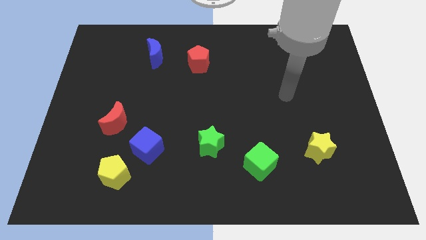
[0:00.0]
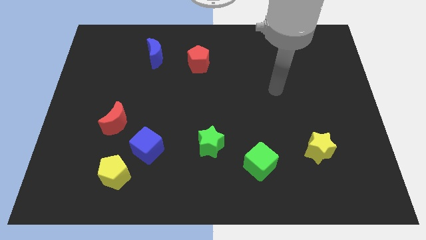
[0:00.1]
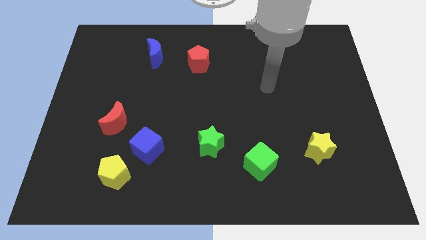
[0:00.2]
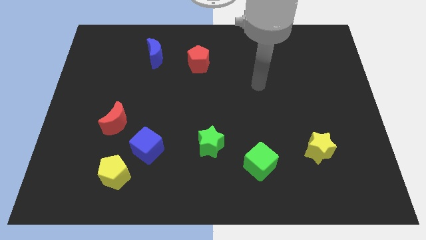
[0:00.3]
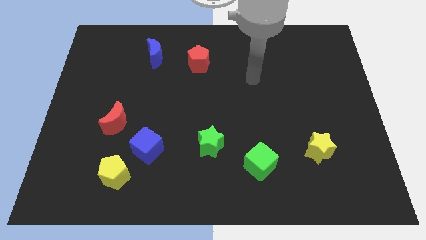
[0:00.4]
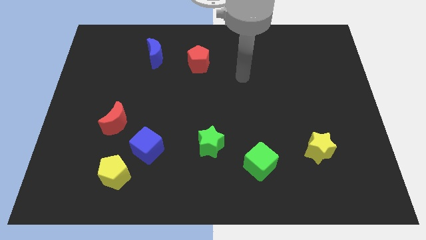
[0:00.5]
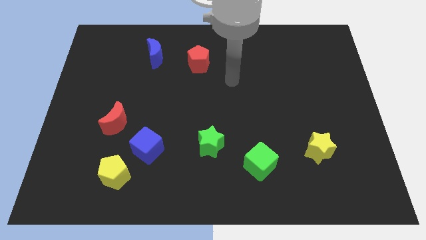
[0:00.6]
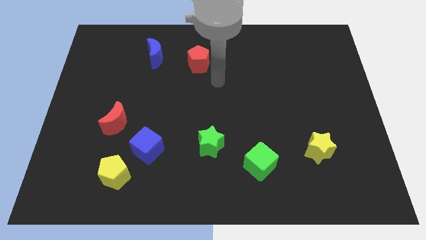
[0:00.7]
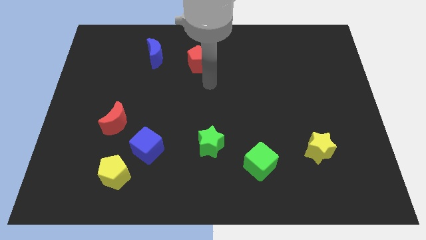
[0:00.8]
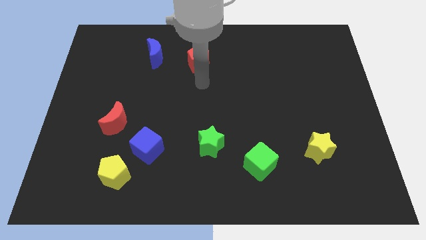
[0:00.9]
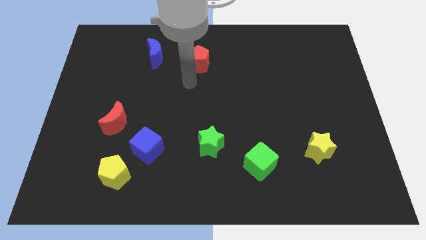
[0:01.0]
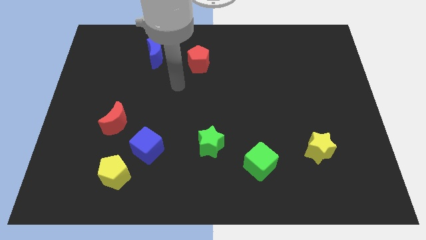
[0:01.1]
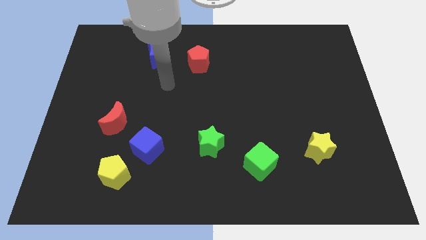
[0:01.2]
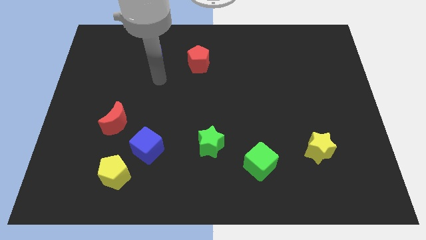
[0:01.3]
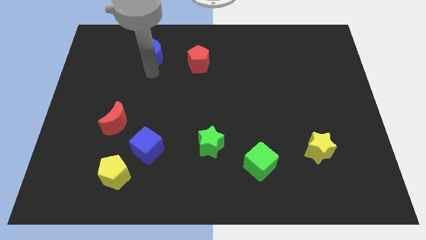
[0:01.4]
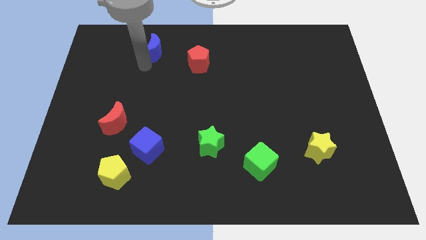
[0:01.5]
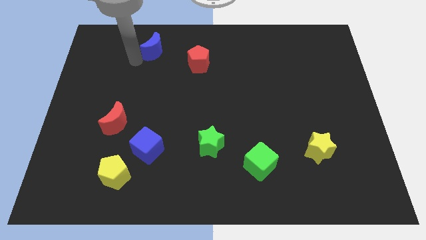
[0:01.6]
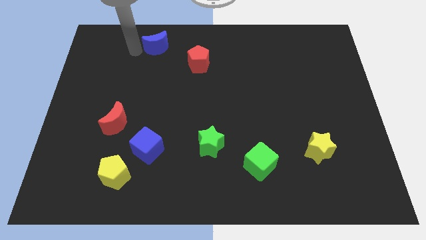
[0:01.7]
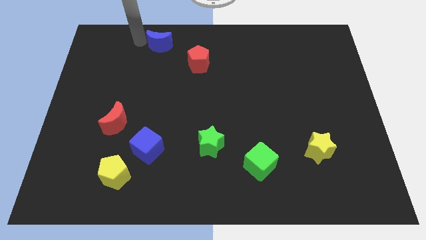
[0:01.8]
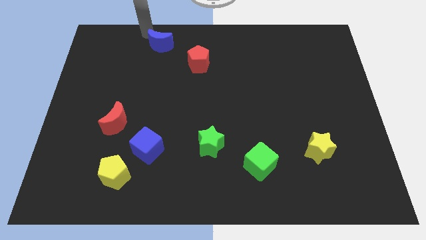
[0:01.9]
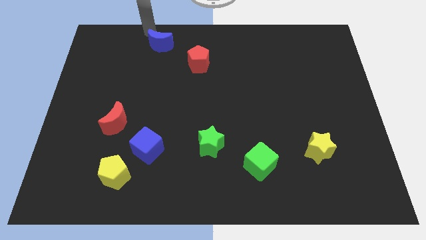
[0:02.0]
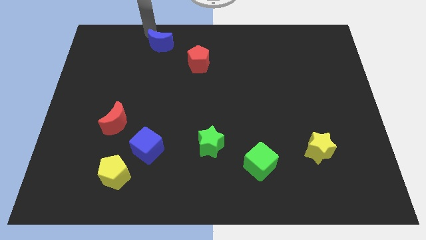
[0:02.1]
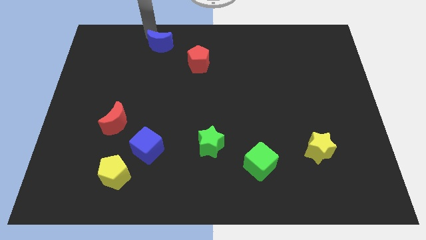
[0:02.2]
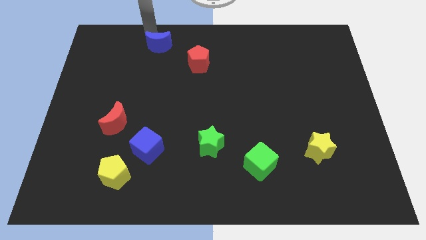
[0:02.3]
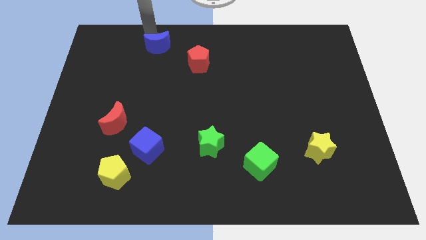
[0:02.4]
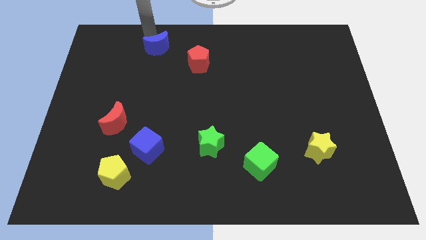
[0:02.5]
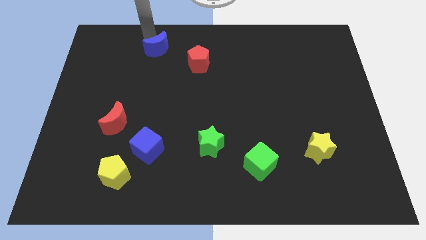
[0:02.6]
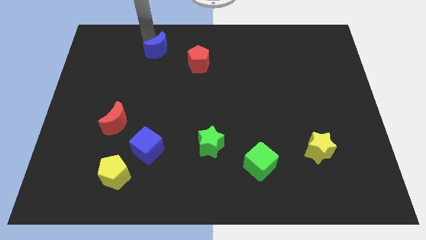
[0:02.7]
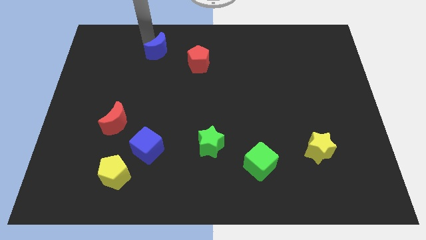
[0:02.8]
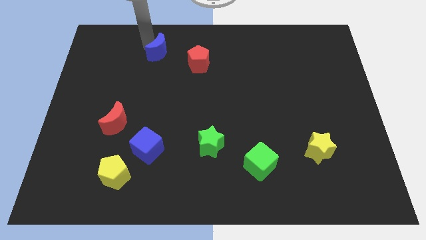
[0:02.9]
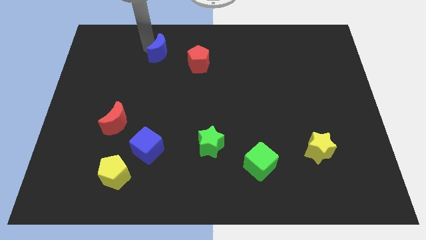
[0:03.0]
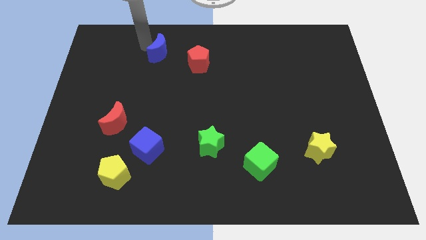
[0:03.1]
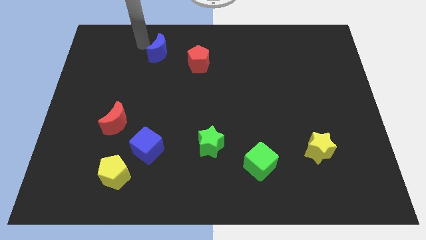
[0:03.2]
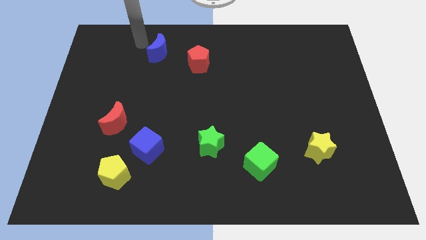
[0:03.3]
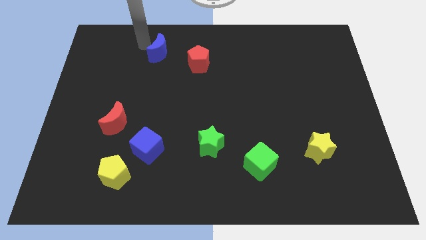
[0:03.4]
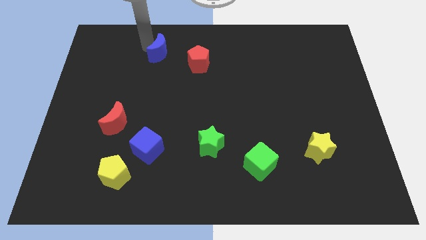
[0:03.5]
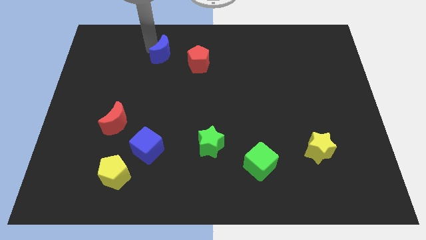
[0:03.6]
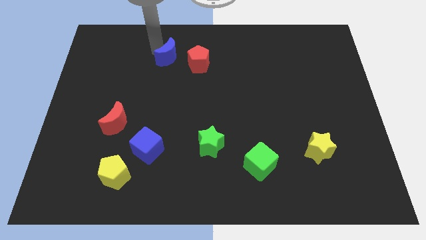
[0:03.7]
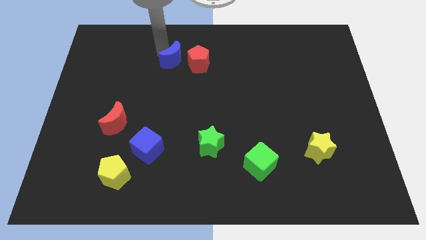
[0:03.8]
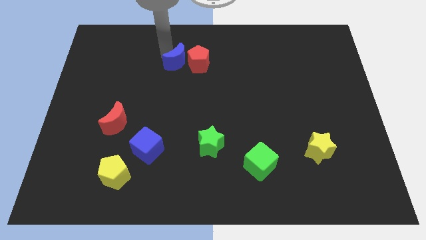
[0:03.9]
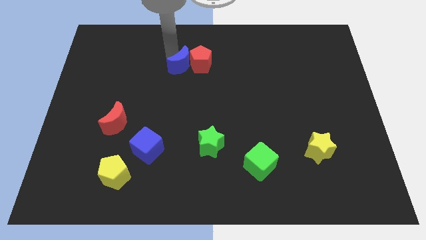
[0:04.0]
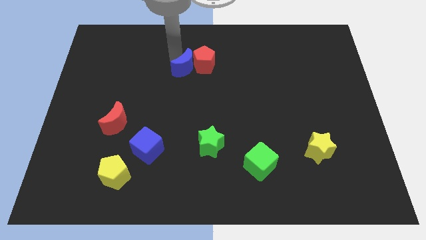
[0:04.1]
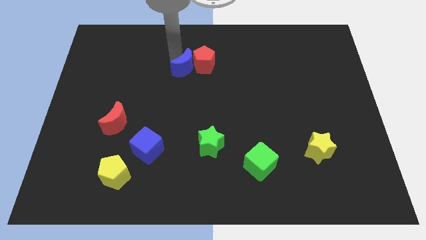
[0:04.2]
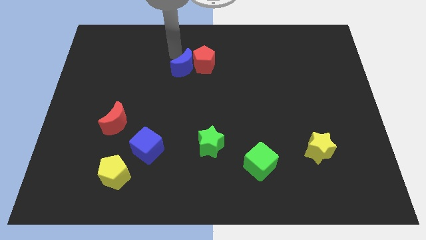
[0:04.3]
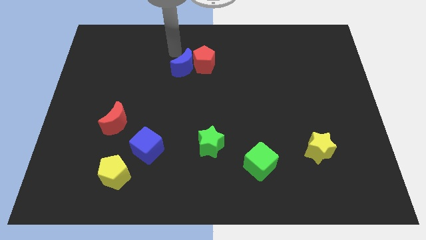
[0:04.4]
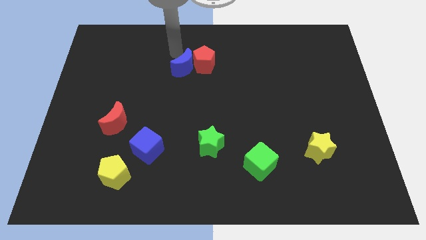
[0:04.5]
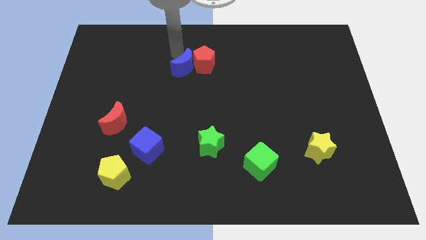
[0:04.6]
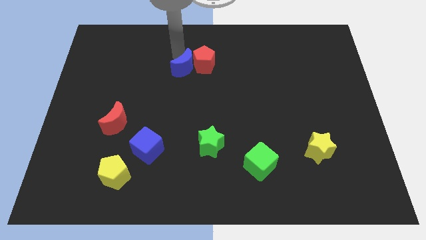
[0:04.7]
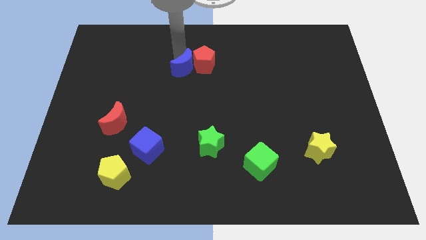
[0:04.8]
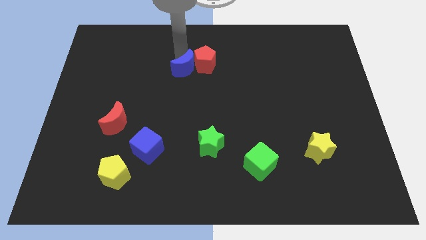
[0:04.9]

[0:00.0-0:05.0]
move the blue moon to the center of the board

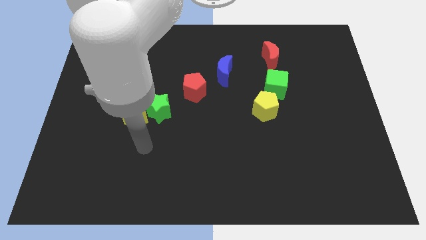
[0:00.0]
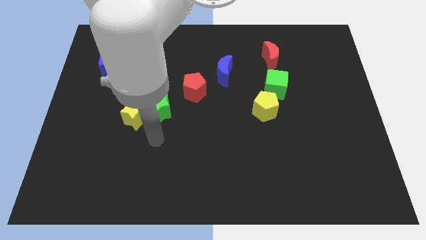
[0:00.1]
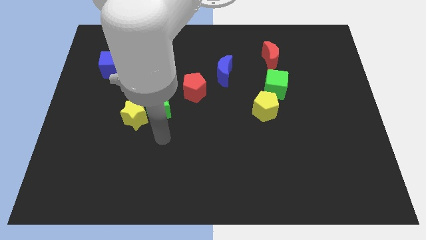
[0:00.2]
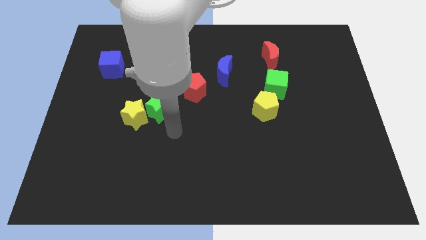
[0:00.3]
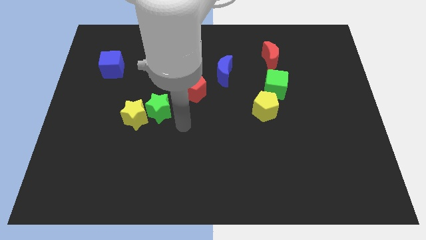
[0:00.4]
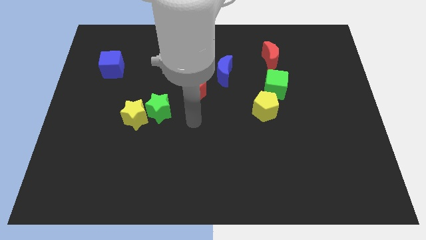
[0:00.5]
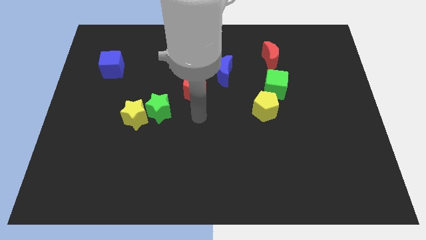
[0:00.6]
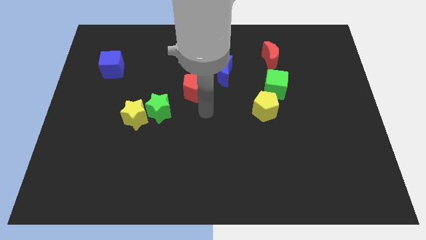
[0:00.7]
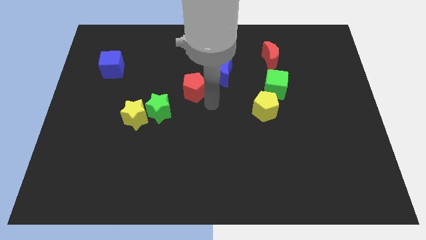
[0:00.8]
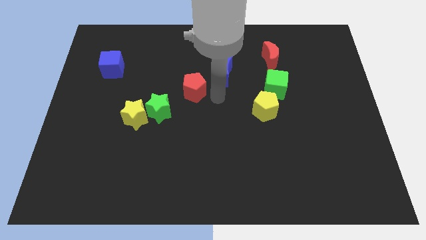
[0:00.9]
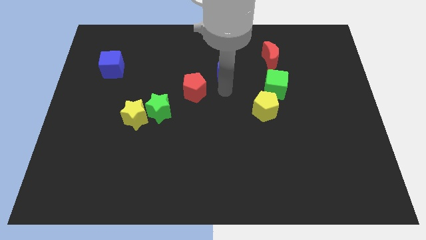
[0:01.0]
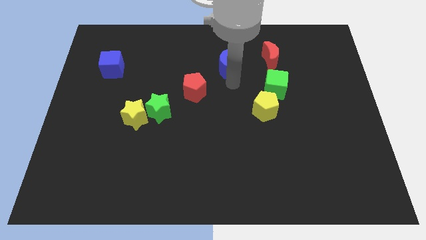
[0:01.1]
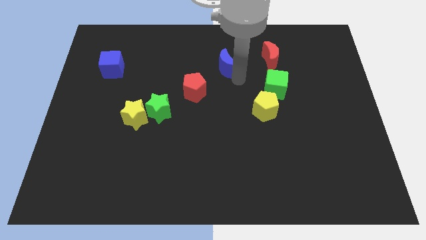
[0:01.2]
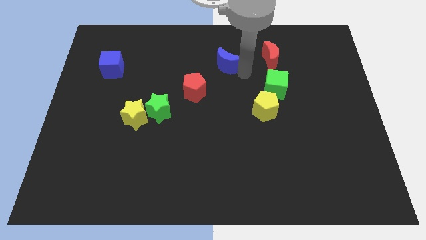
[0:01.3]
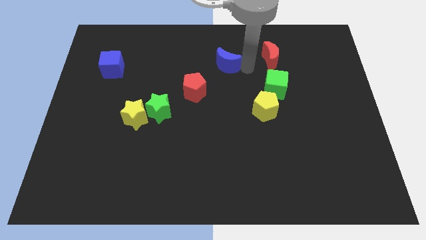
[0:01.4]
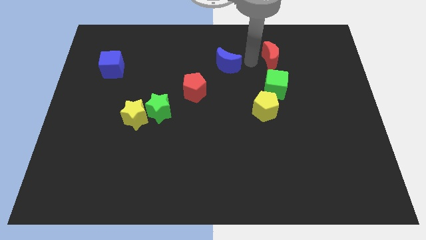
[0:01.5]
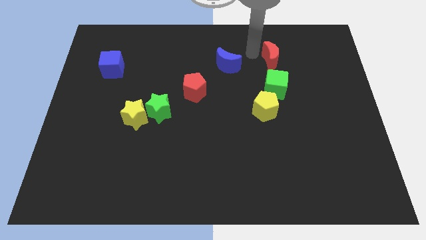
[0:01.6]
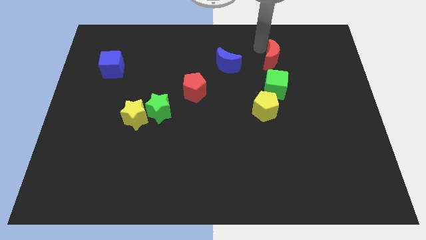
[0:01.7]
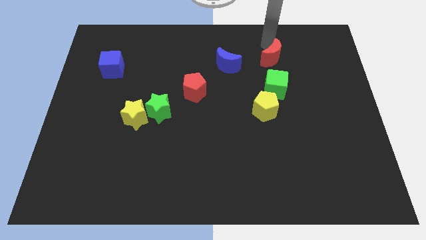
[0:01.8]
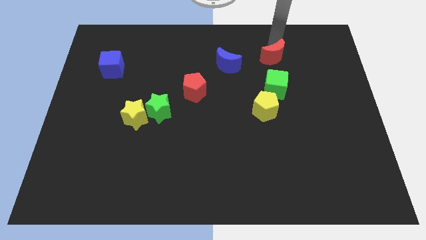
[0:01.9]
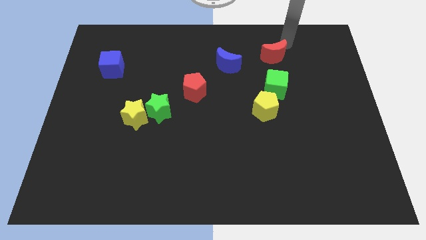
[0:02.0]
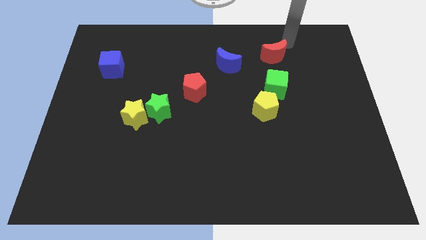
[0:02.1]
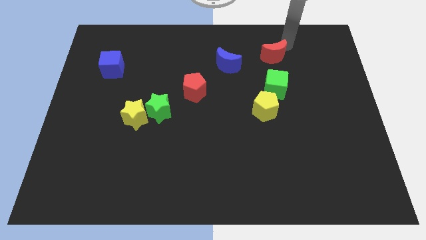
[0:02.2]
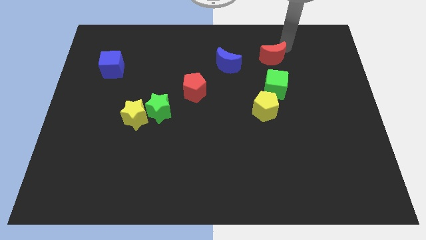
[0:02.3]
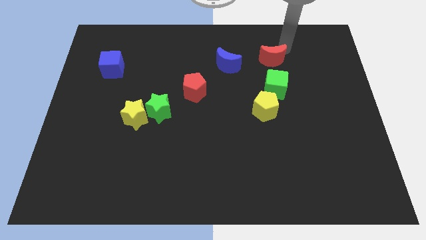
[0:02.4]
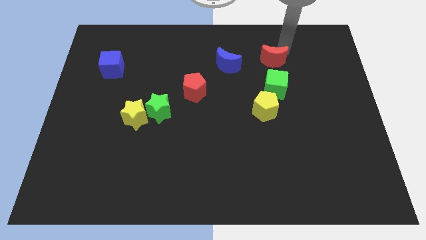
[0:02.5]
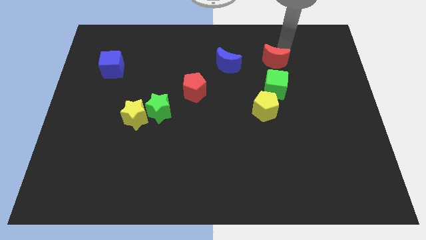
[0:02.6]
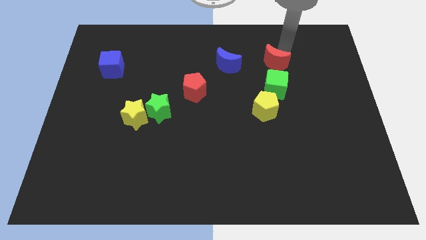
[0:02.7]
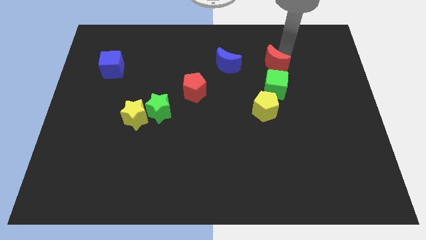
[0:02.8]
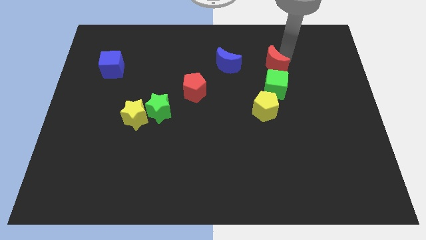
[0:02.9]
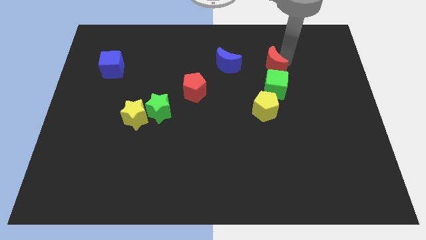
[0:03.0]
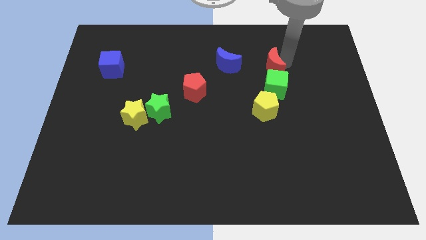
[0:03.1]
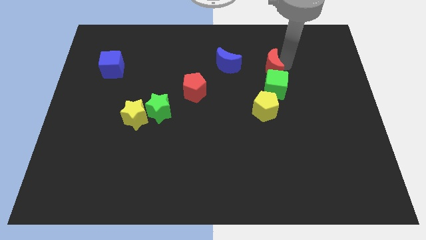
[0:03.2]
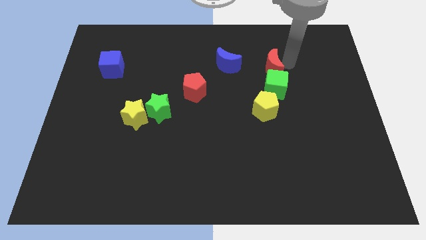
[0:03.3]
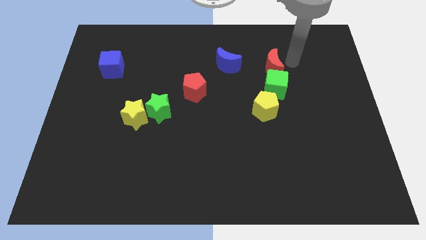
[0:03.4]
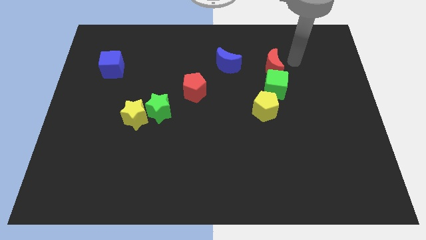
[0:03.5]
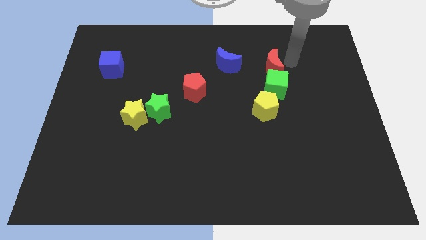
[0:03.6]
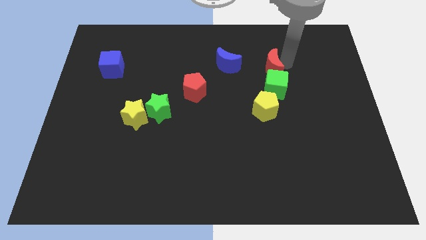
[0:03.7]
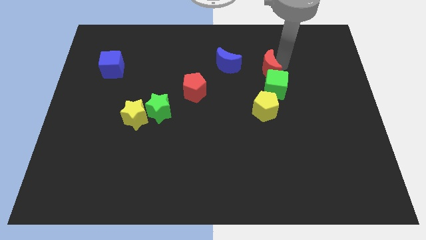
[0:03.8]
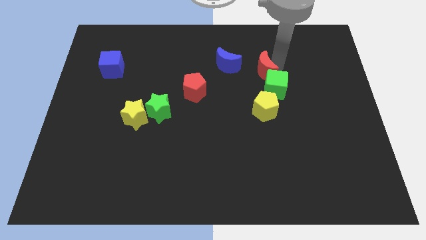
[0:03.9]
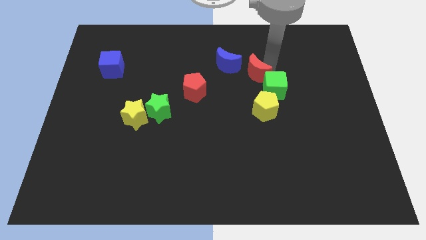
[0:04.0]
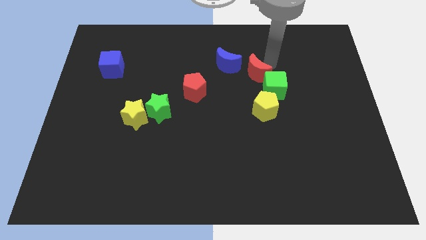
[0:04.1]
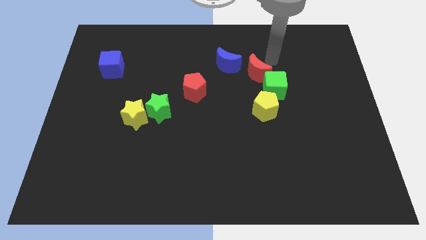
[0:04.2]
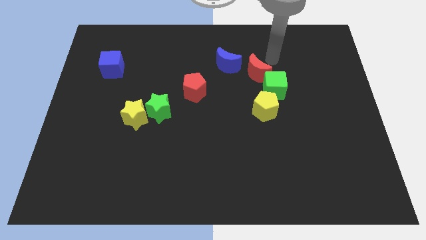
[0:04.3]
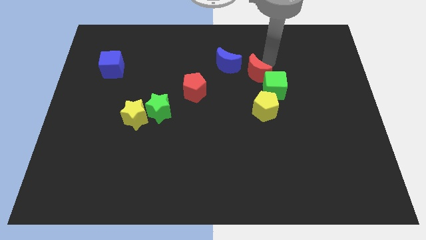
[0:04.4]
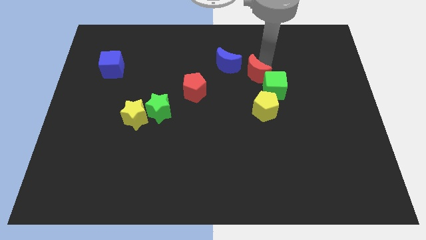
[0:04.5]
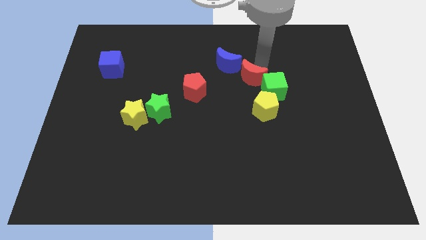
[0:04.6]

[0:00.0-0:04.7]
push the red moon to the center of the board
